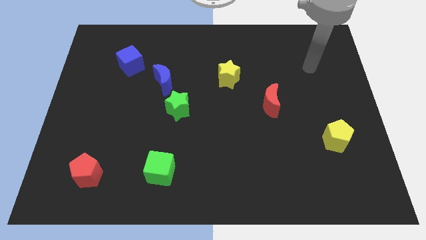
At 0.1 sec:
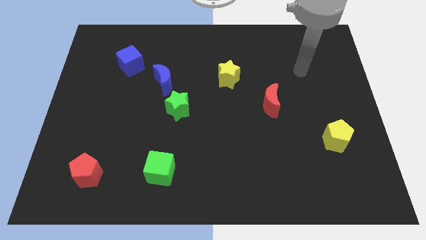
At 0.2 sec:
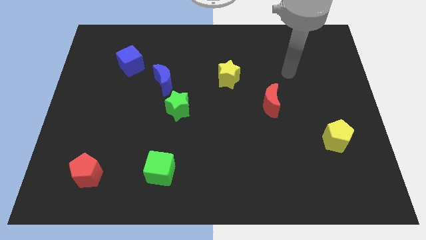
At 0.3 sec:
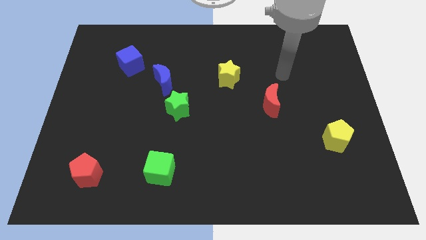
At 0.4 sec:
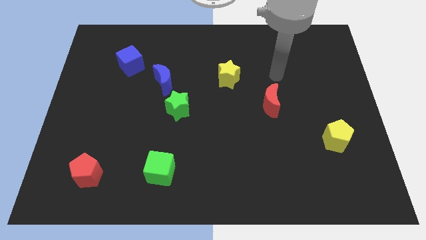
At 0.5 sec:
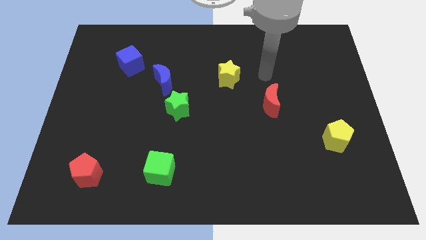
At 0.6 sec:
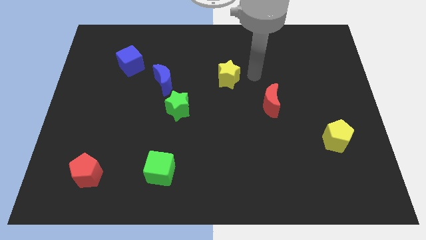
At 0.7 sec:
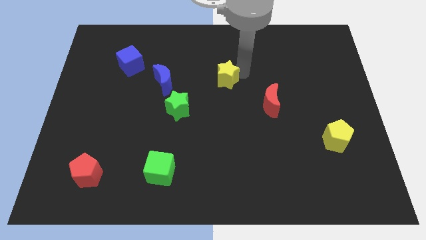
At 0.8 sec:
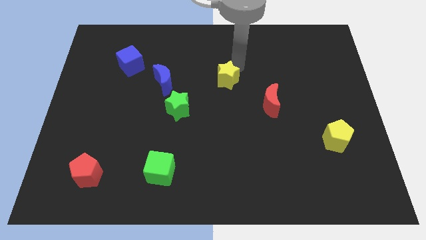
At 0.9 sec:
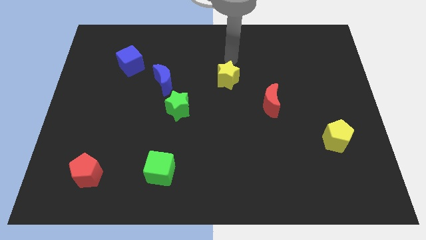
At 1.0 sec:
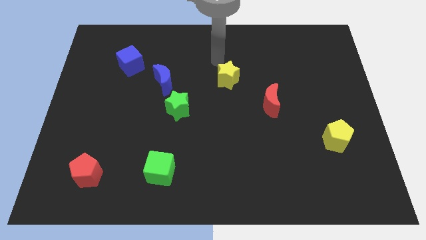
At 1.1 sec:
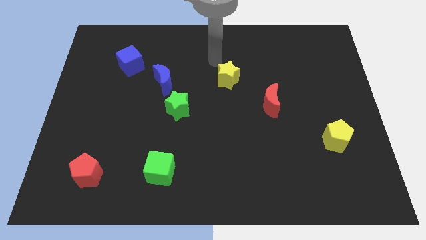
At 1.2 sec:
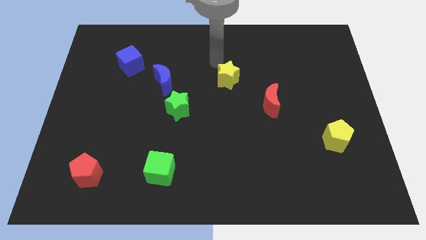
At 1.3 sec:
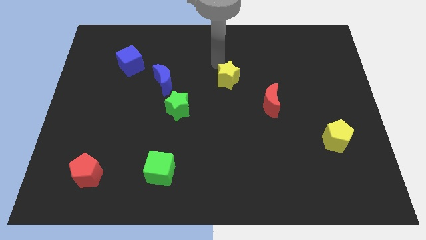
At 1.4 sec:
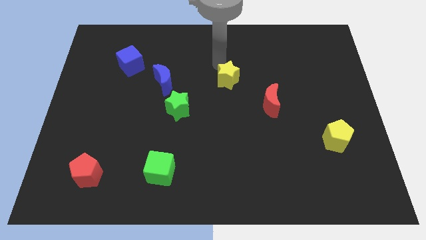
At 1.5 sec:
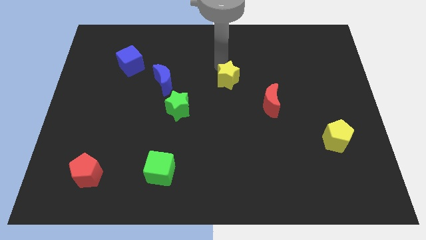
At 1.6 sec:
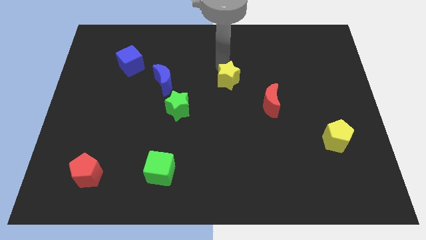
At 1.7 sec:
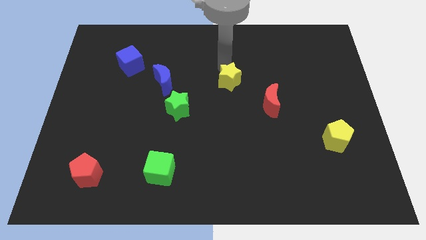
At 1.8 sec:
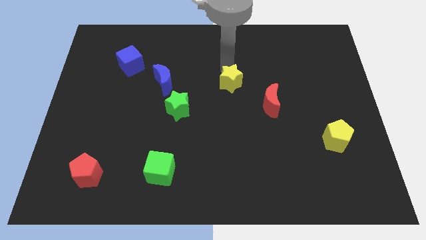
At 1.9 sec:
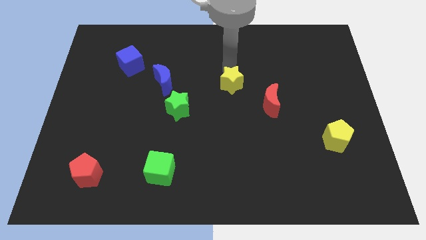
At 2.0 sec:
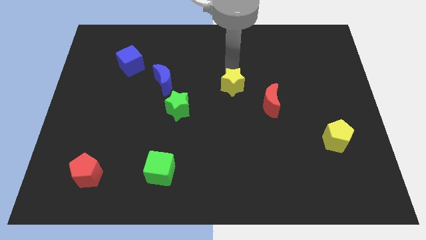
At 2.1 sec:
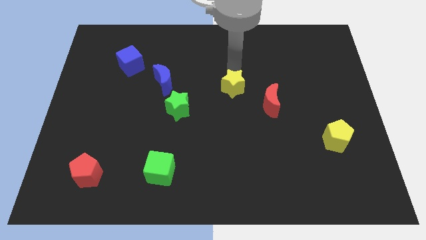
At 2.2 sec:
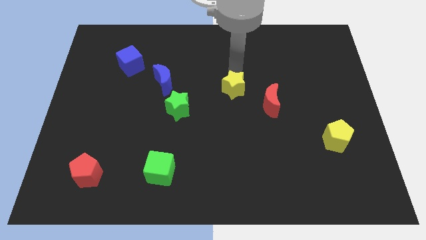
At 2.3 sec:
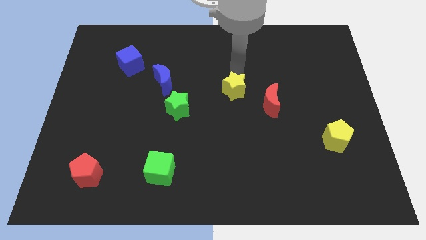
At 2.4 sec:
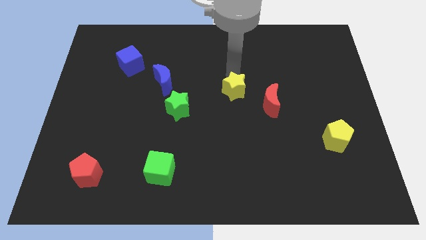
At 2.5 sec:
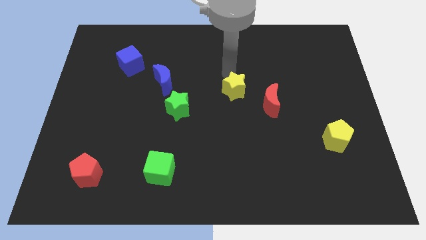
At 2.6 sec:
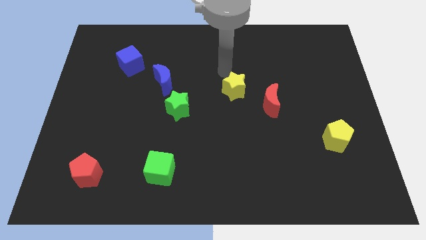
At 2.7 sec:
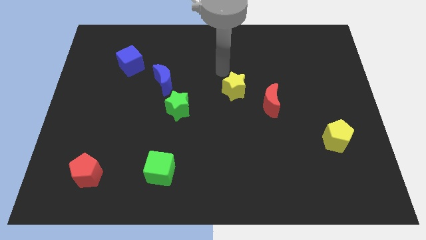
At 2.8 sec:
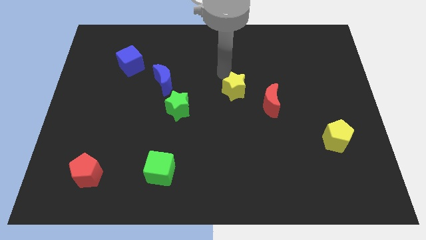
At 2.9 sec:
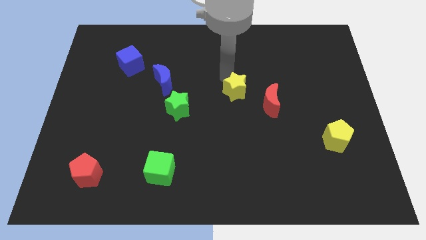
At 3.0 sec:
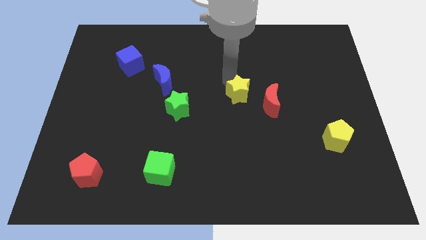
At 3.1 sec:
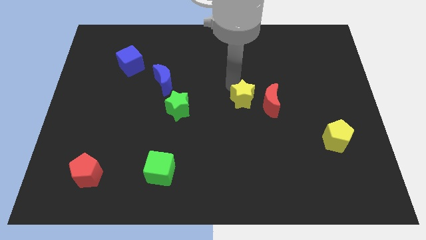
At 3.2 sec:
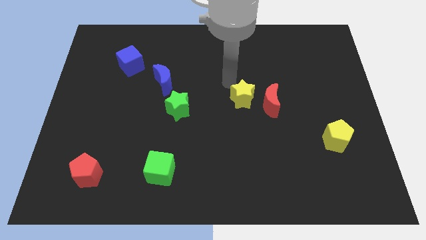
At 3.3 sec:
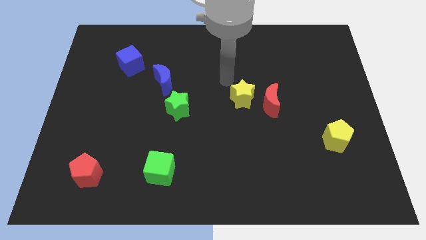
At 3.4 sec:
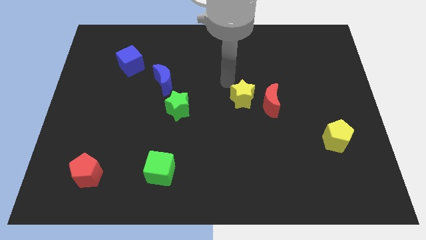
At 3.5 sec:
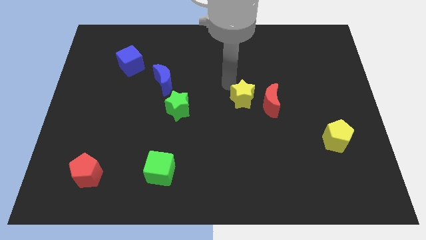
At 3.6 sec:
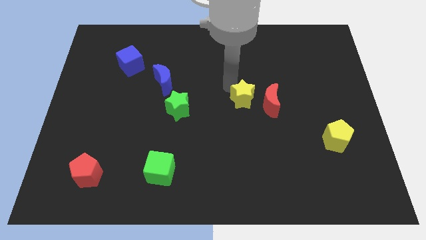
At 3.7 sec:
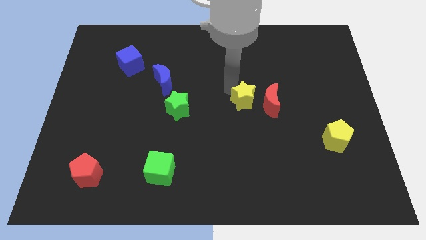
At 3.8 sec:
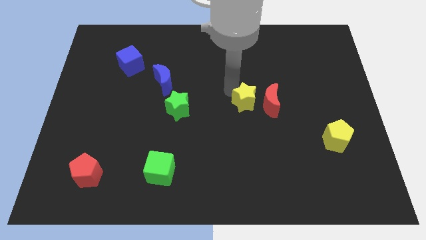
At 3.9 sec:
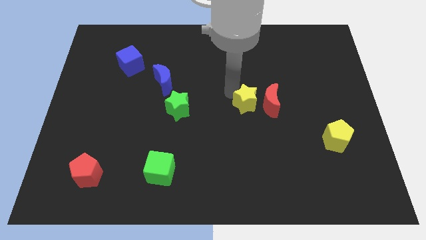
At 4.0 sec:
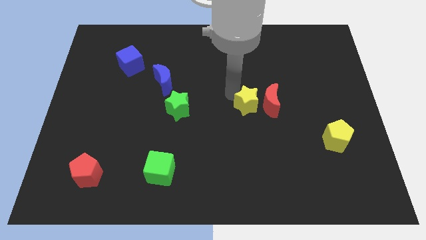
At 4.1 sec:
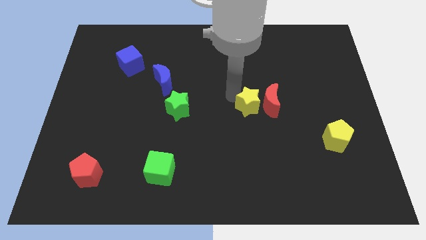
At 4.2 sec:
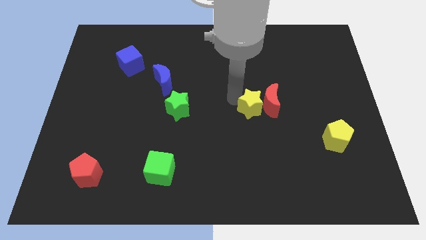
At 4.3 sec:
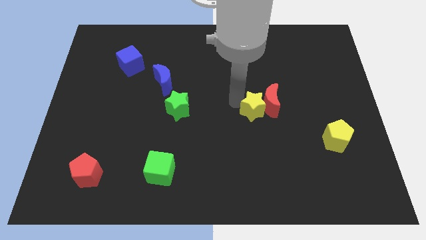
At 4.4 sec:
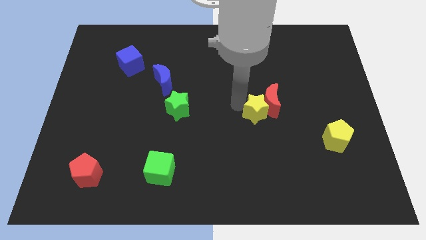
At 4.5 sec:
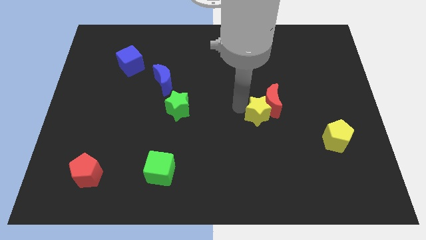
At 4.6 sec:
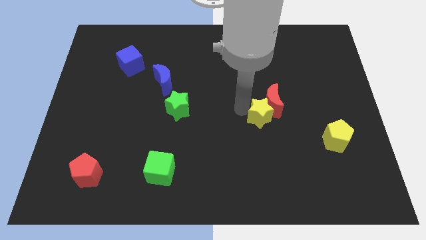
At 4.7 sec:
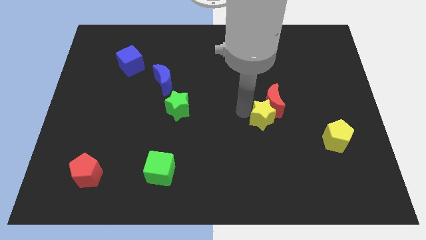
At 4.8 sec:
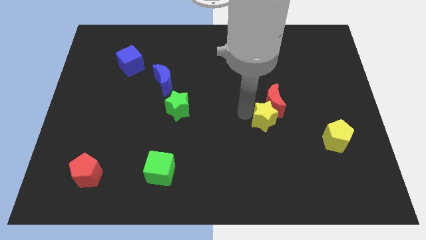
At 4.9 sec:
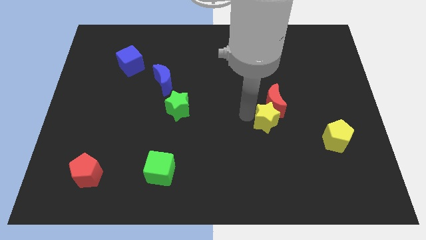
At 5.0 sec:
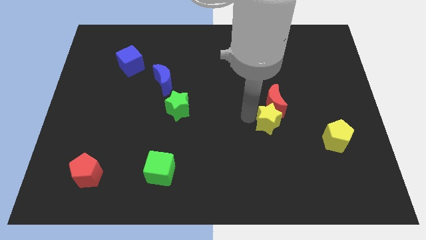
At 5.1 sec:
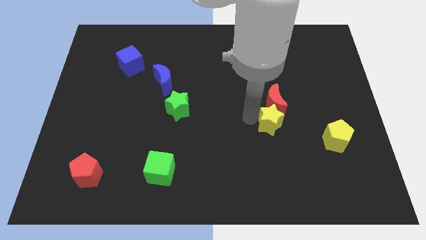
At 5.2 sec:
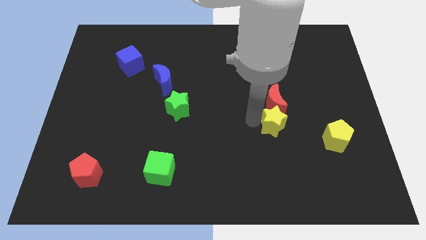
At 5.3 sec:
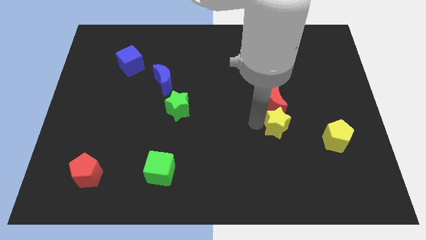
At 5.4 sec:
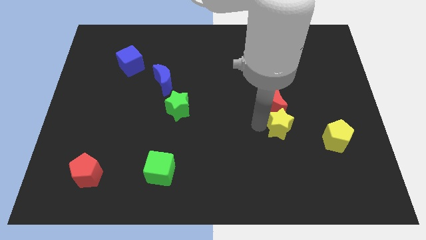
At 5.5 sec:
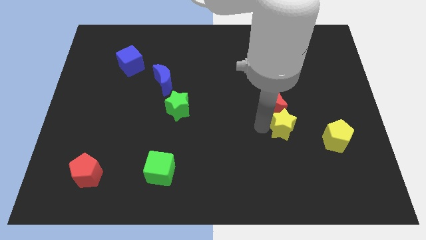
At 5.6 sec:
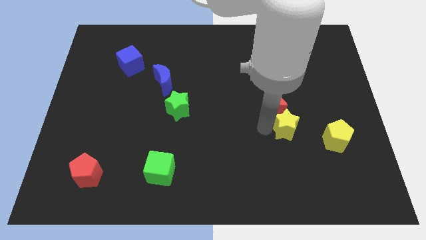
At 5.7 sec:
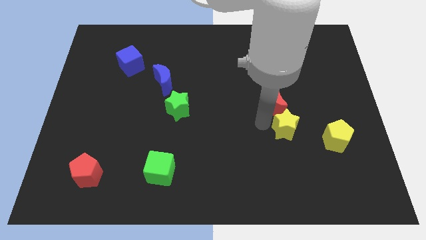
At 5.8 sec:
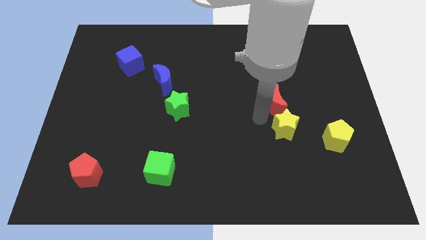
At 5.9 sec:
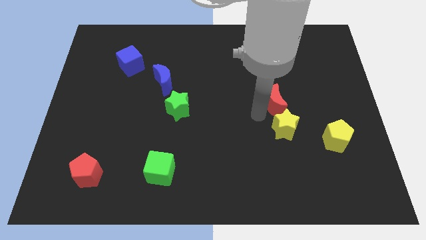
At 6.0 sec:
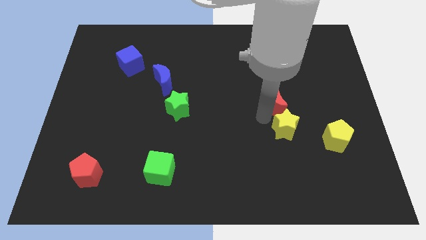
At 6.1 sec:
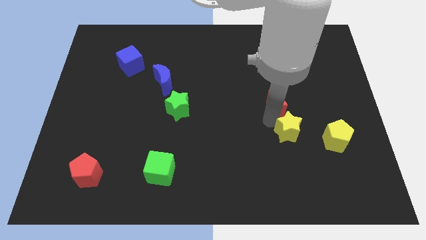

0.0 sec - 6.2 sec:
slide the yellow star down and to the right diagonally

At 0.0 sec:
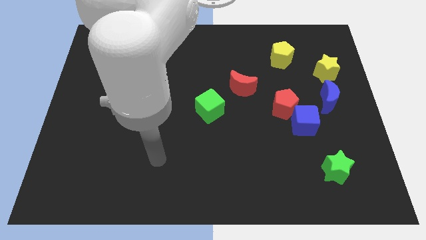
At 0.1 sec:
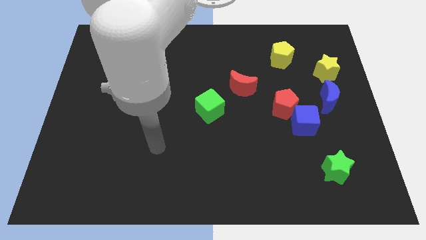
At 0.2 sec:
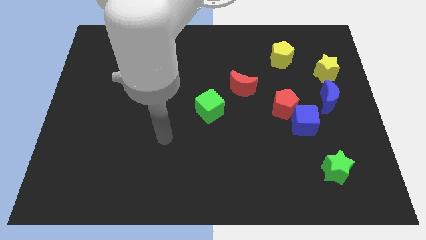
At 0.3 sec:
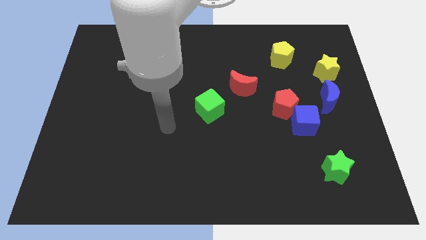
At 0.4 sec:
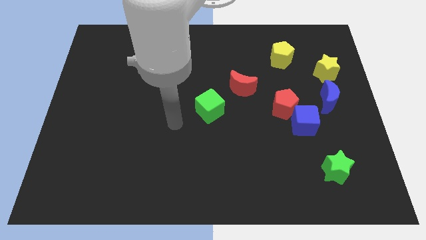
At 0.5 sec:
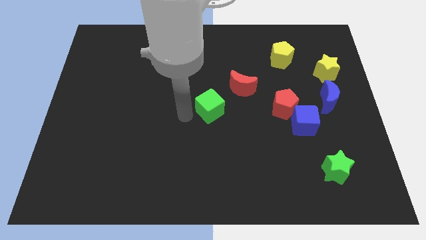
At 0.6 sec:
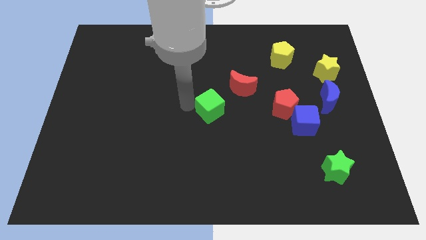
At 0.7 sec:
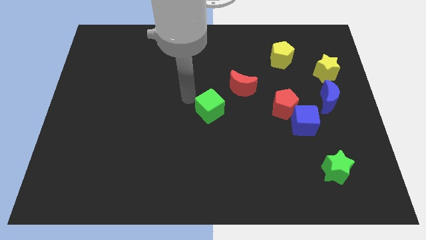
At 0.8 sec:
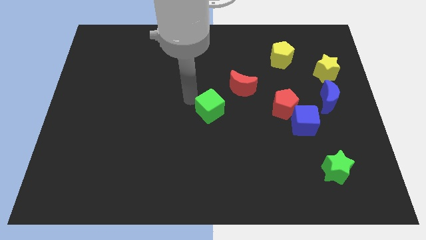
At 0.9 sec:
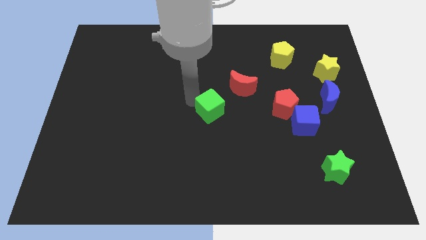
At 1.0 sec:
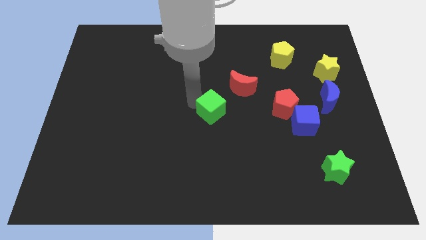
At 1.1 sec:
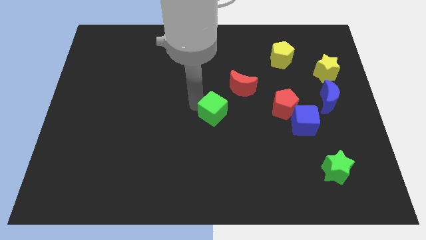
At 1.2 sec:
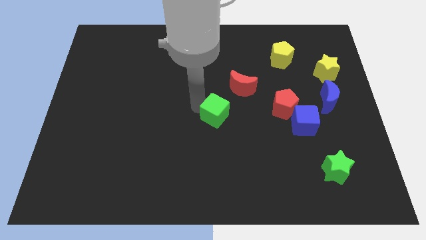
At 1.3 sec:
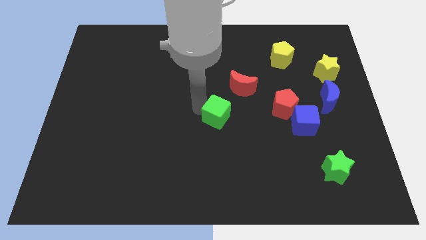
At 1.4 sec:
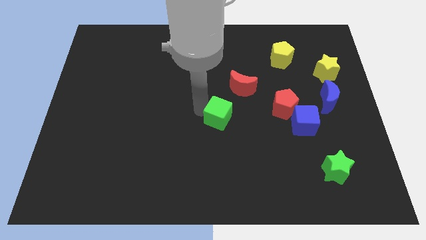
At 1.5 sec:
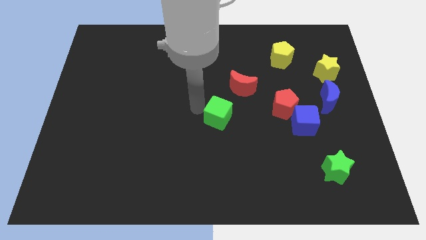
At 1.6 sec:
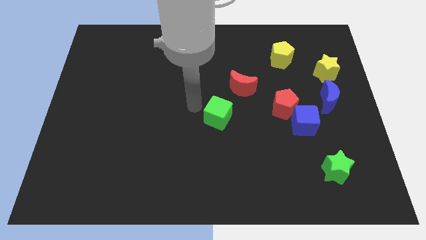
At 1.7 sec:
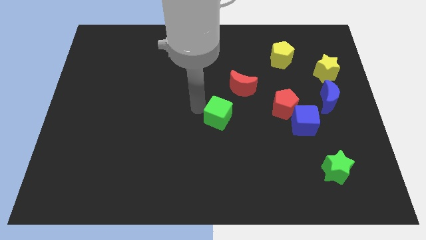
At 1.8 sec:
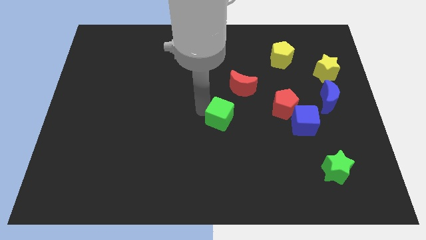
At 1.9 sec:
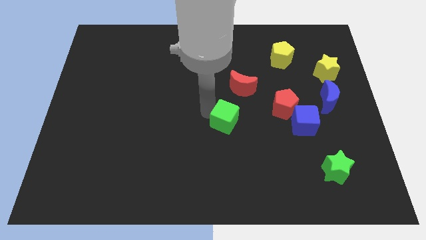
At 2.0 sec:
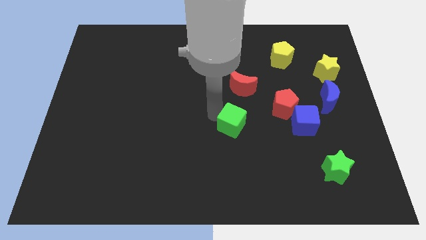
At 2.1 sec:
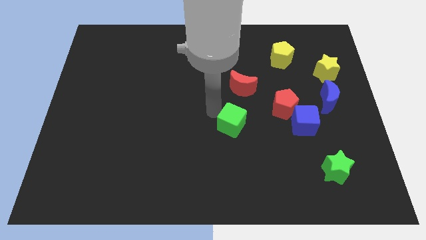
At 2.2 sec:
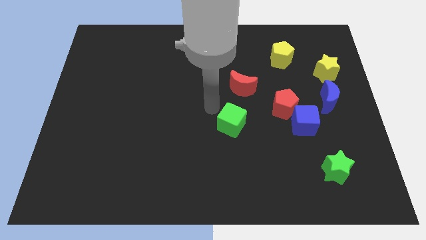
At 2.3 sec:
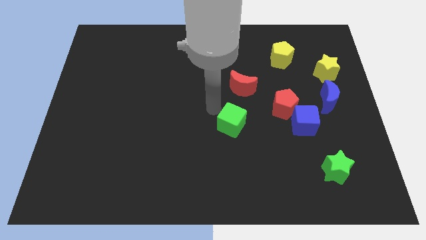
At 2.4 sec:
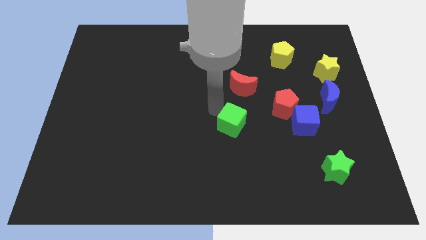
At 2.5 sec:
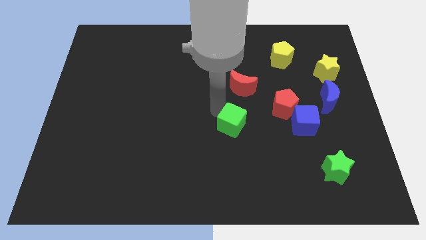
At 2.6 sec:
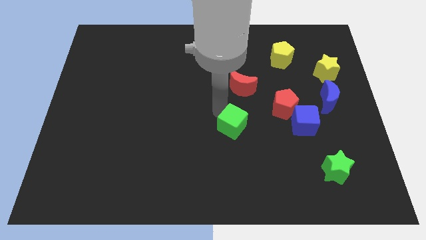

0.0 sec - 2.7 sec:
slide the green cube slightly down and to the right diagonally
